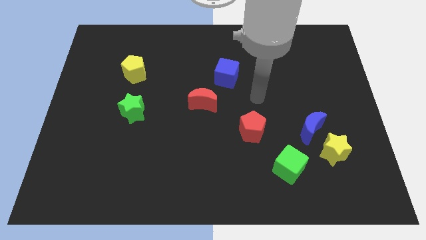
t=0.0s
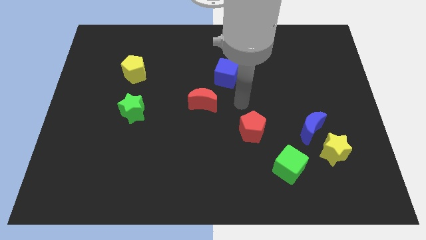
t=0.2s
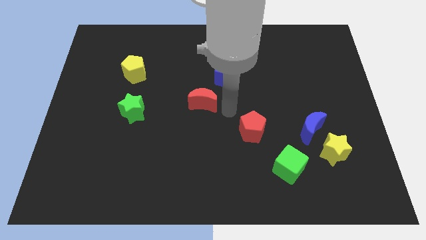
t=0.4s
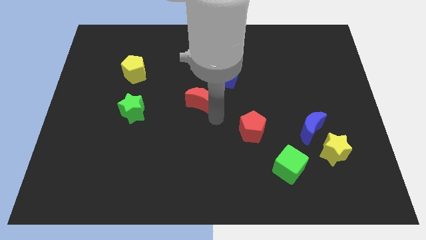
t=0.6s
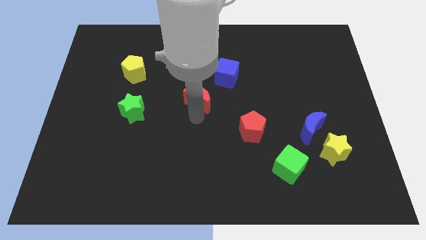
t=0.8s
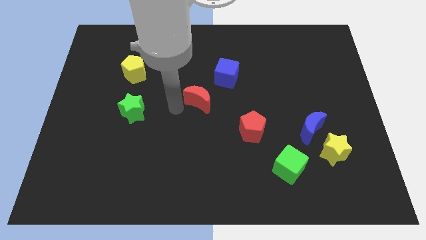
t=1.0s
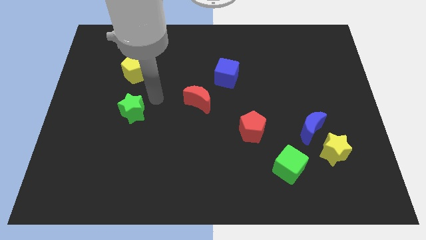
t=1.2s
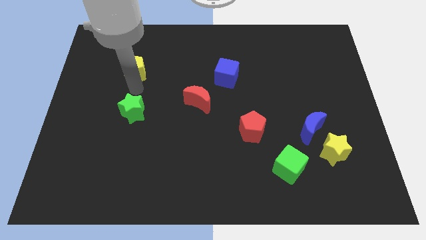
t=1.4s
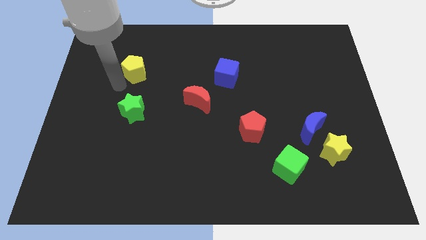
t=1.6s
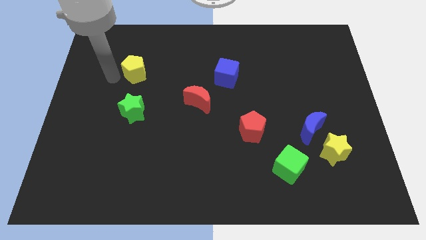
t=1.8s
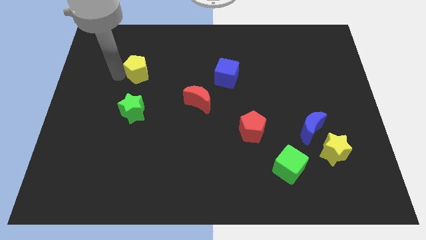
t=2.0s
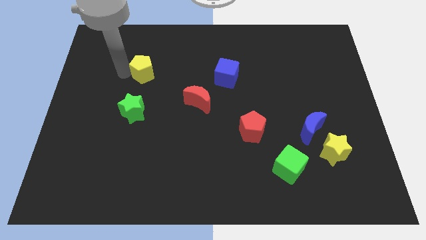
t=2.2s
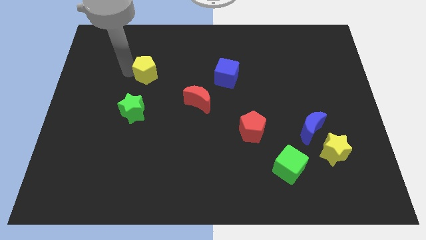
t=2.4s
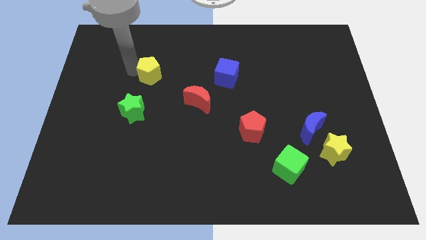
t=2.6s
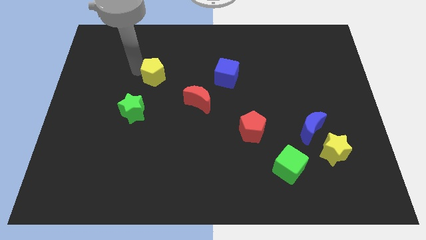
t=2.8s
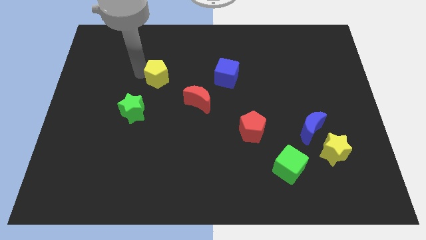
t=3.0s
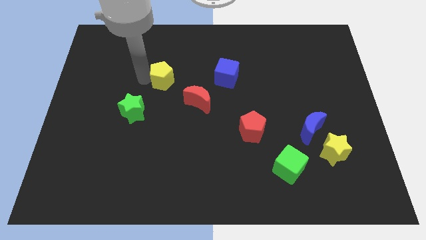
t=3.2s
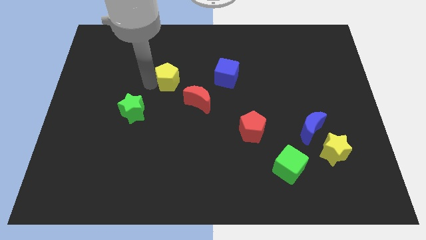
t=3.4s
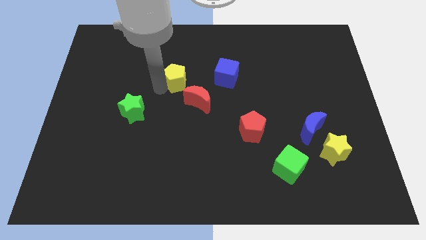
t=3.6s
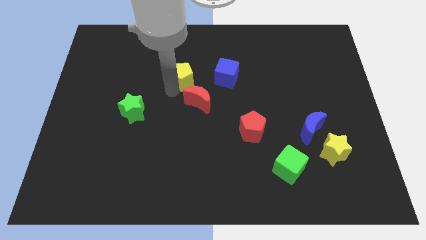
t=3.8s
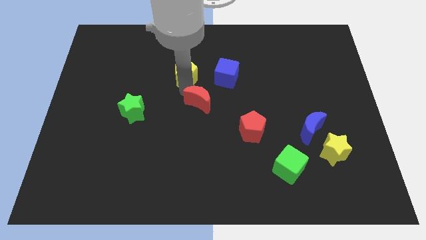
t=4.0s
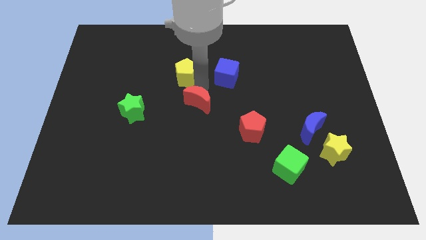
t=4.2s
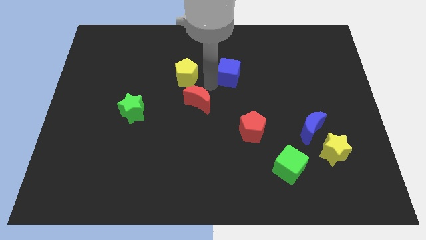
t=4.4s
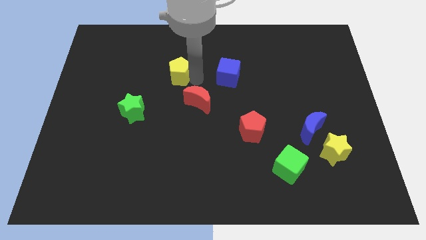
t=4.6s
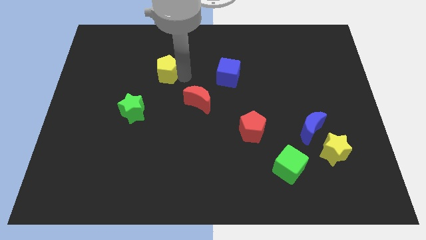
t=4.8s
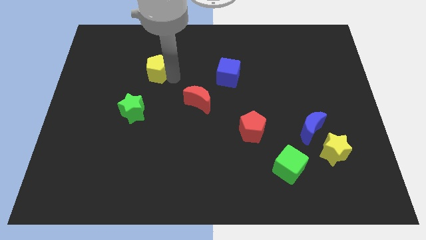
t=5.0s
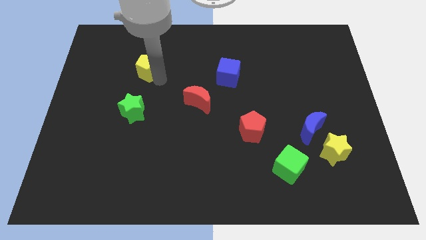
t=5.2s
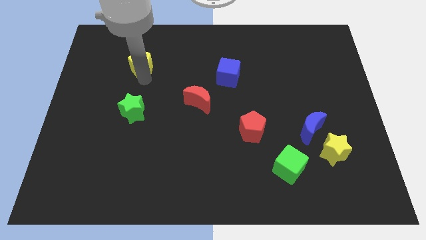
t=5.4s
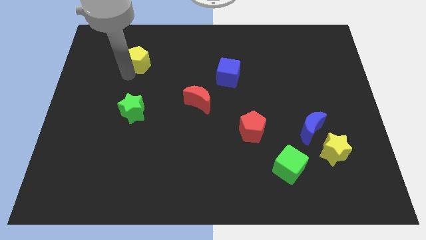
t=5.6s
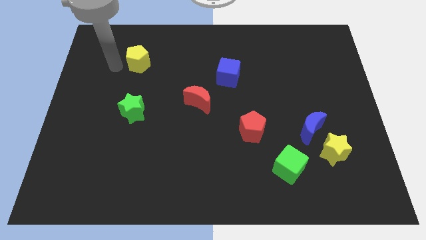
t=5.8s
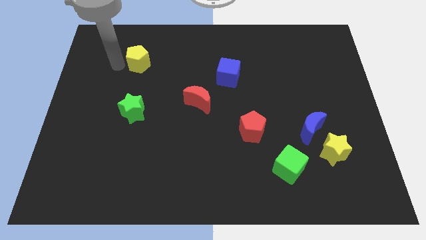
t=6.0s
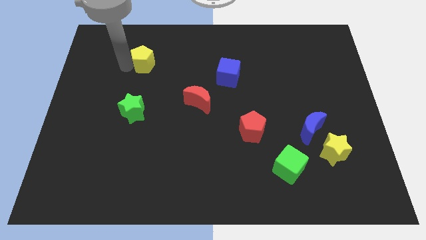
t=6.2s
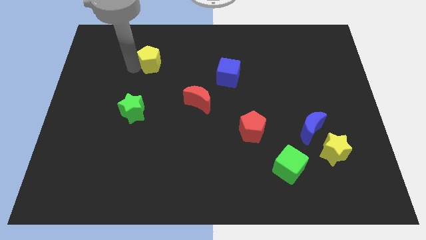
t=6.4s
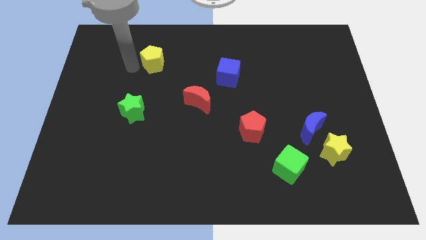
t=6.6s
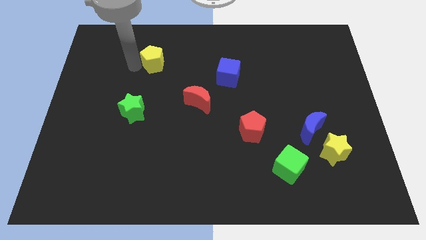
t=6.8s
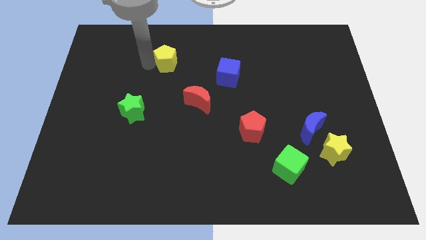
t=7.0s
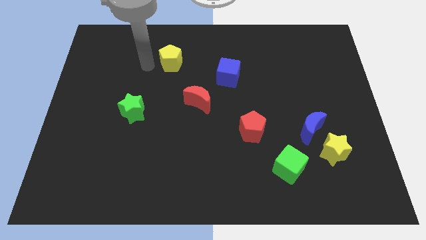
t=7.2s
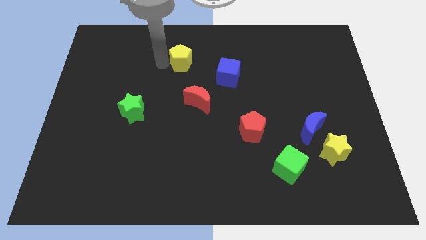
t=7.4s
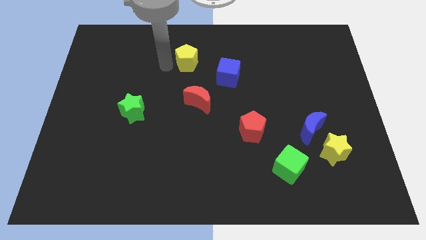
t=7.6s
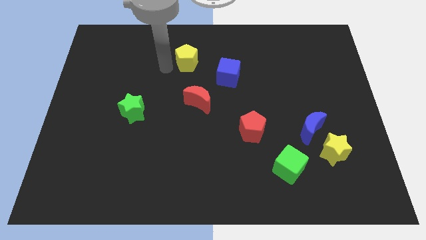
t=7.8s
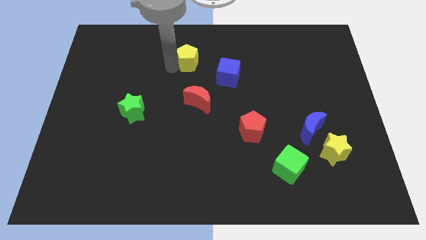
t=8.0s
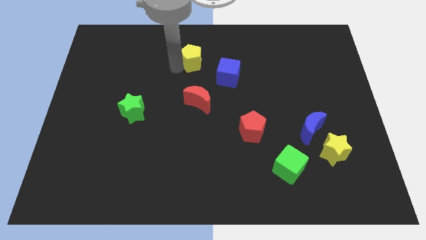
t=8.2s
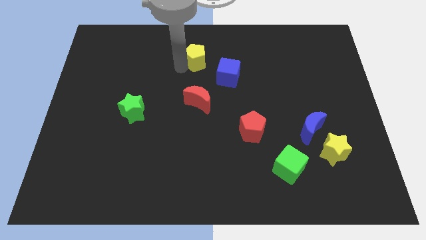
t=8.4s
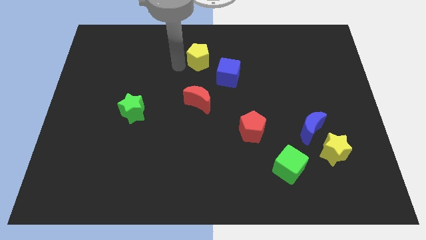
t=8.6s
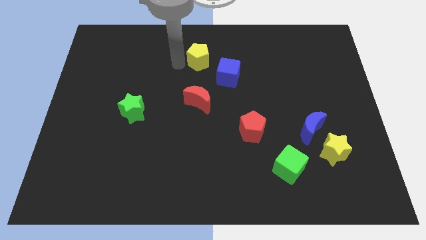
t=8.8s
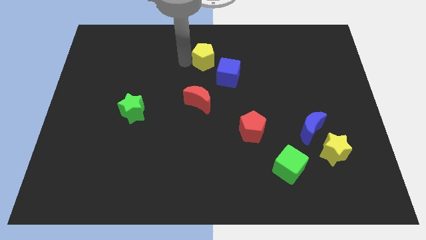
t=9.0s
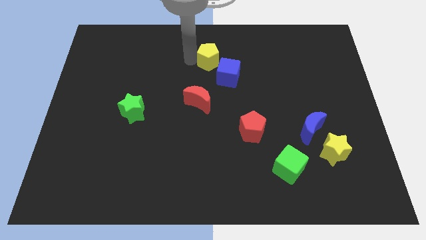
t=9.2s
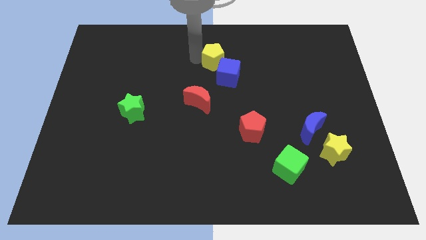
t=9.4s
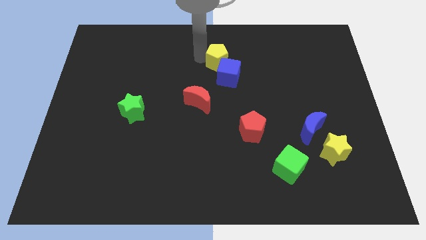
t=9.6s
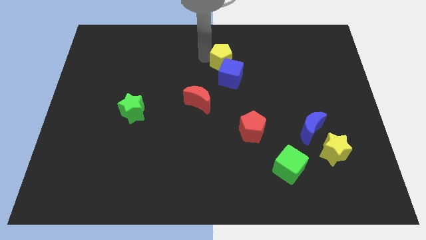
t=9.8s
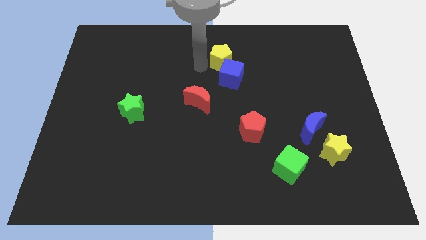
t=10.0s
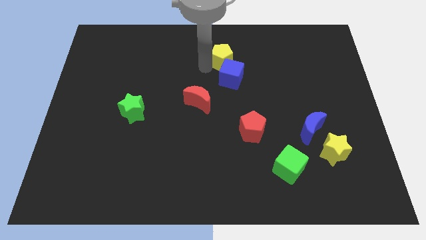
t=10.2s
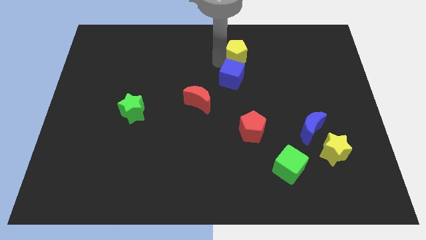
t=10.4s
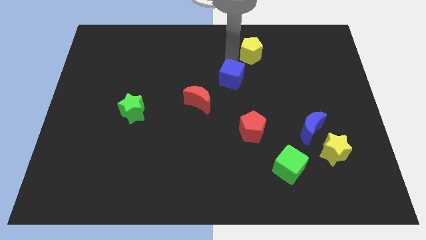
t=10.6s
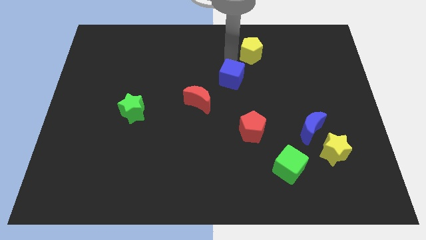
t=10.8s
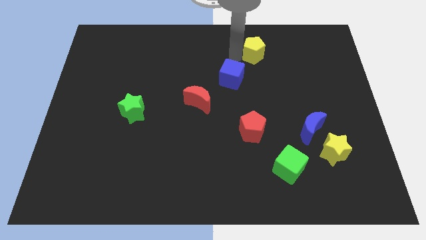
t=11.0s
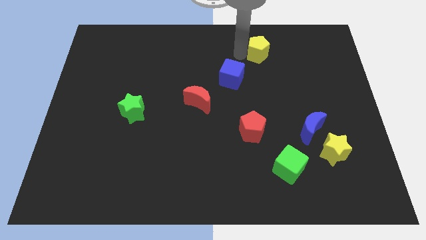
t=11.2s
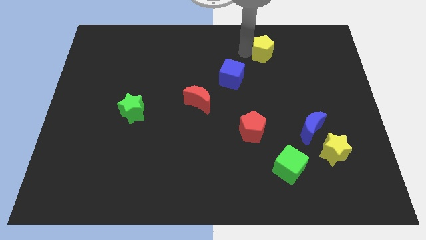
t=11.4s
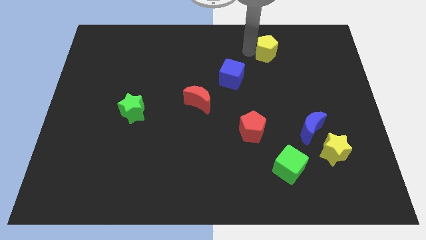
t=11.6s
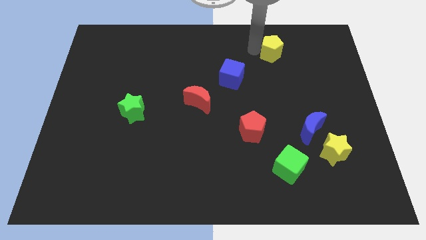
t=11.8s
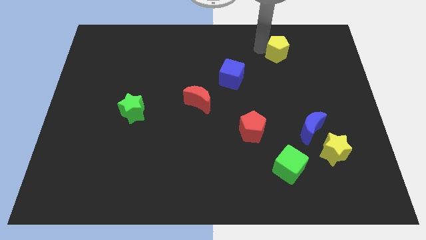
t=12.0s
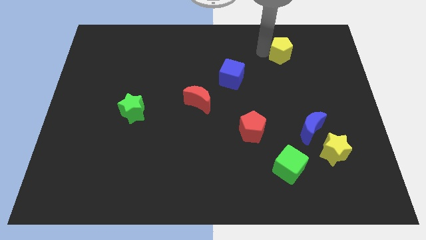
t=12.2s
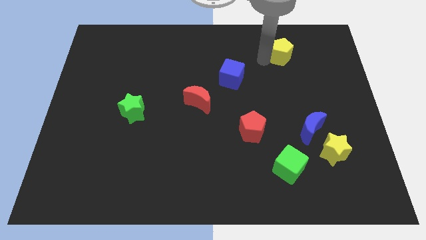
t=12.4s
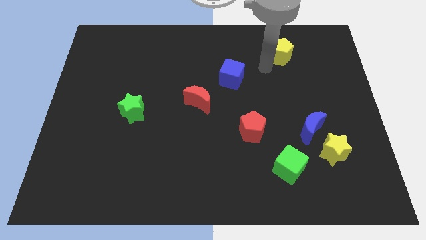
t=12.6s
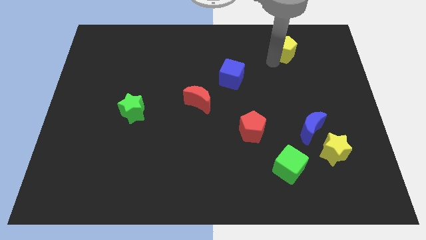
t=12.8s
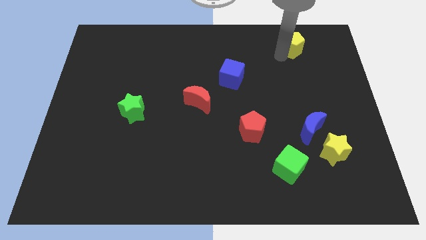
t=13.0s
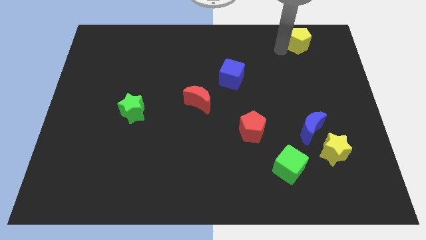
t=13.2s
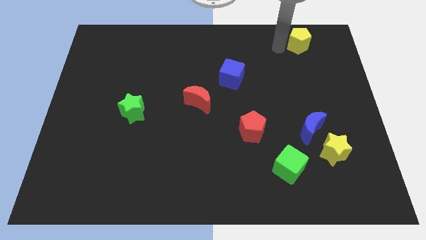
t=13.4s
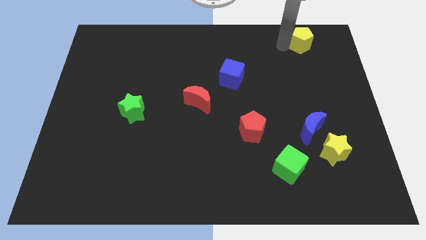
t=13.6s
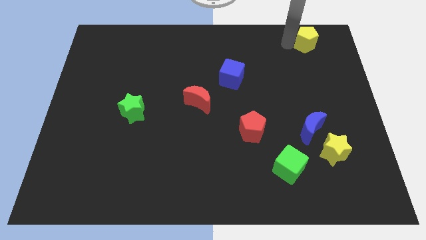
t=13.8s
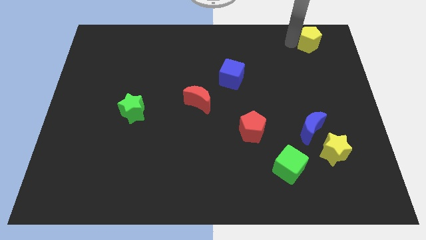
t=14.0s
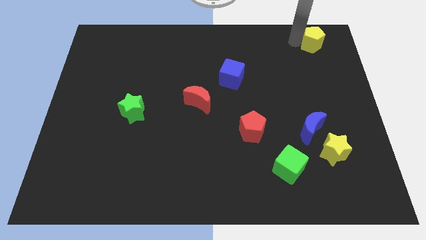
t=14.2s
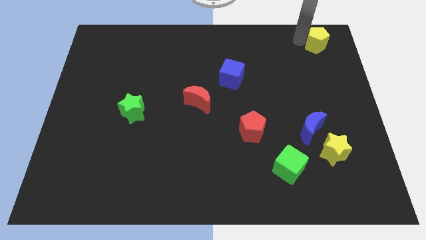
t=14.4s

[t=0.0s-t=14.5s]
move the yellow pentagon to the top right
